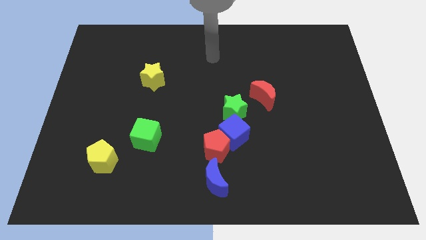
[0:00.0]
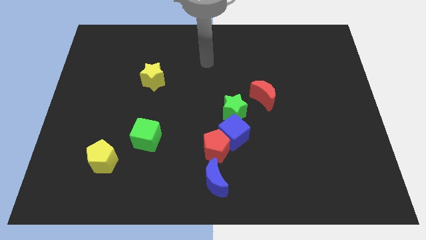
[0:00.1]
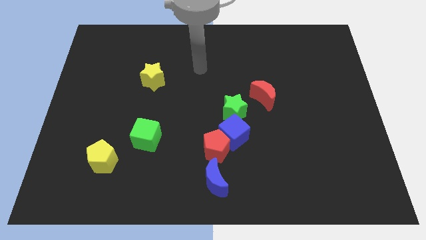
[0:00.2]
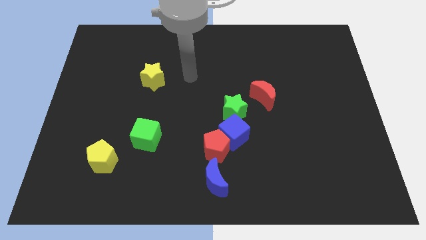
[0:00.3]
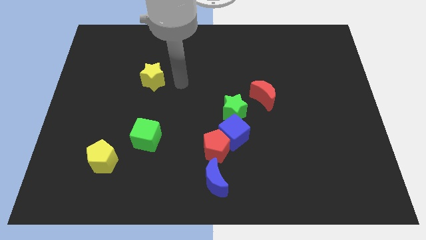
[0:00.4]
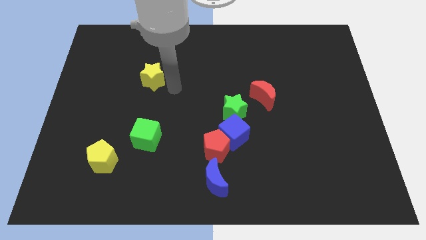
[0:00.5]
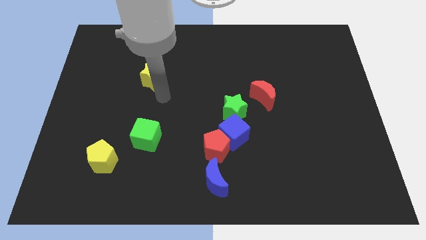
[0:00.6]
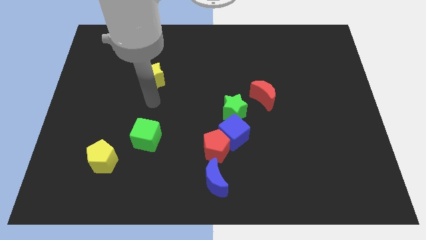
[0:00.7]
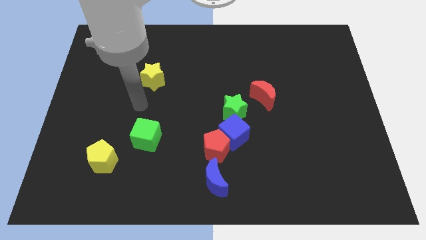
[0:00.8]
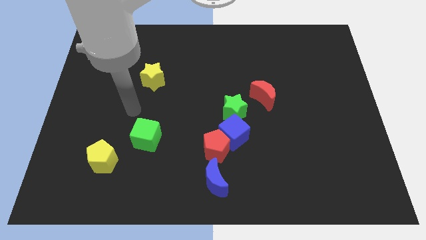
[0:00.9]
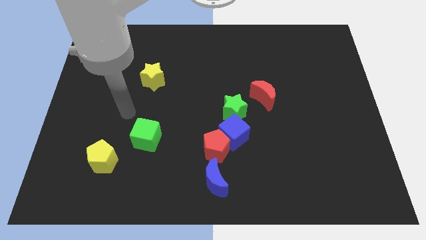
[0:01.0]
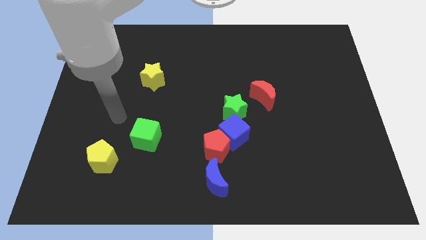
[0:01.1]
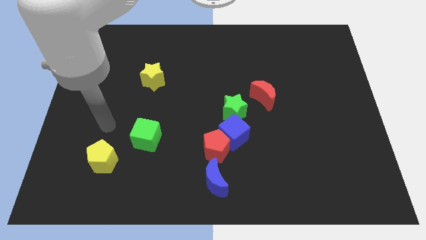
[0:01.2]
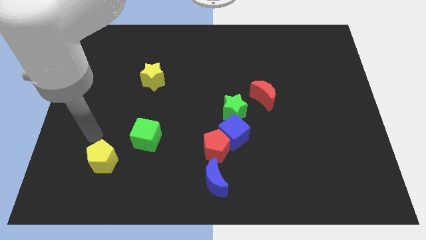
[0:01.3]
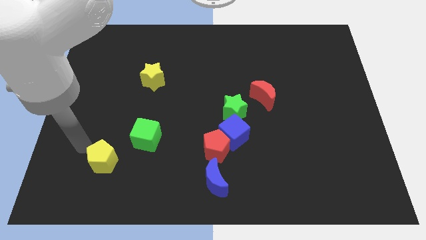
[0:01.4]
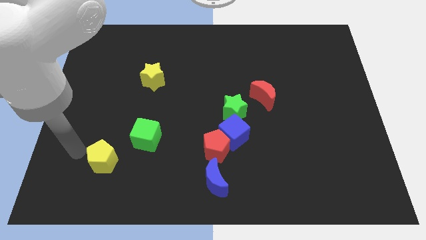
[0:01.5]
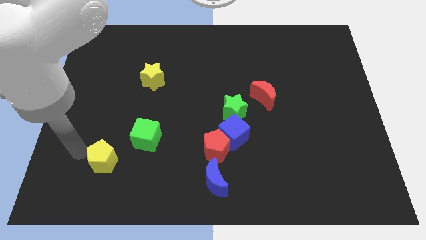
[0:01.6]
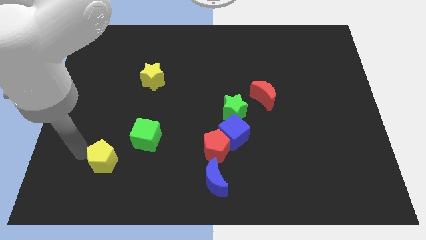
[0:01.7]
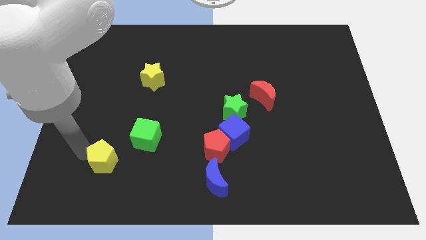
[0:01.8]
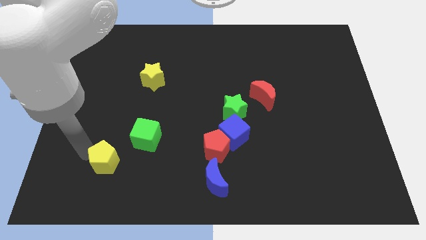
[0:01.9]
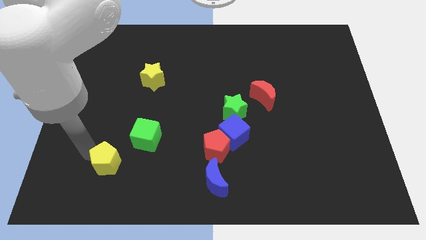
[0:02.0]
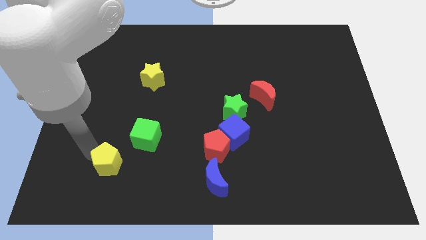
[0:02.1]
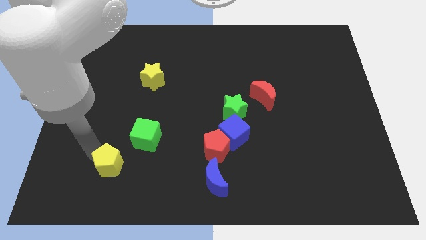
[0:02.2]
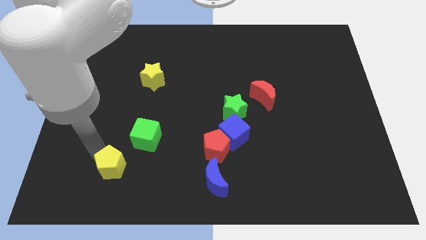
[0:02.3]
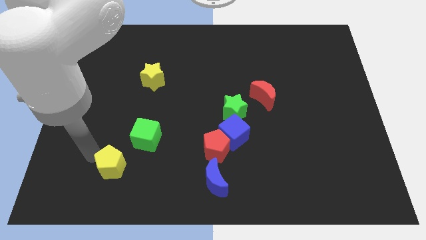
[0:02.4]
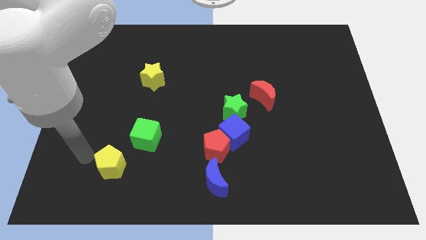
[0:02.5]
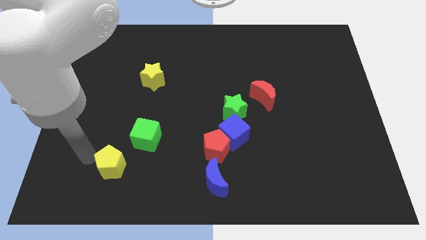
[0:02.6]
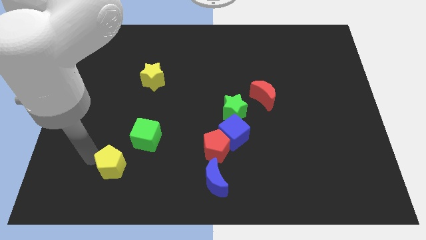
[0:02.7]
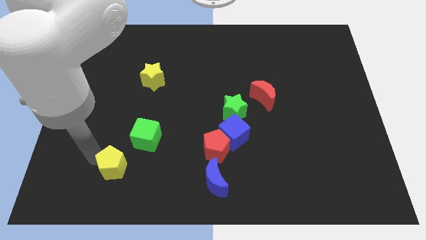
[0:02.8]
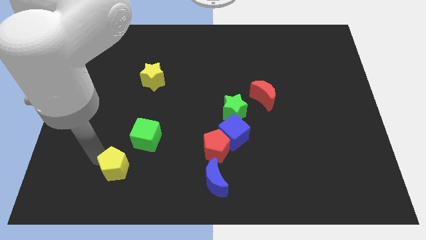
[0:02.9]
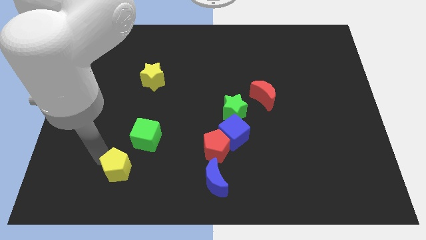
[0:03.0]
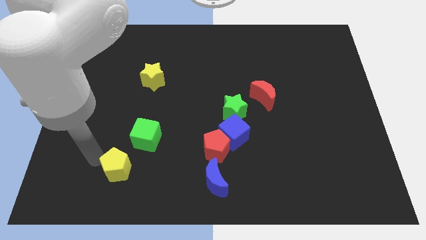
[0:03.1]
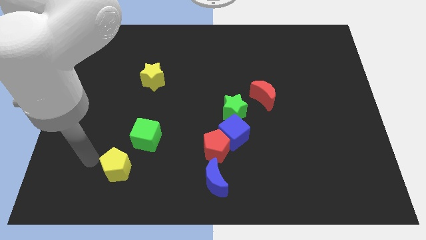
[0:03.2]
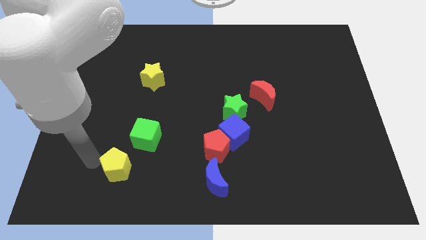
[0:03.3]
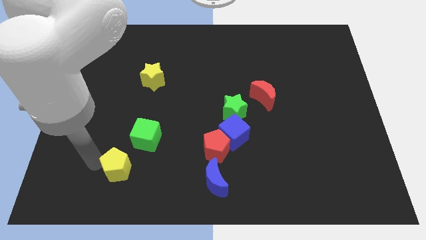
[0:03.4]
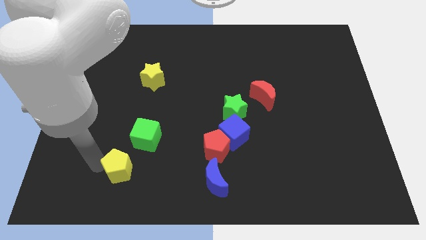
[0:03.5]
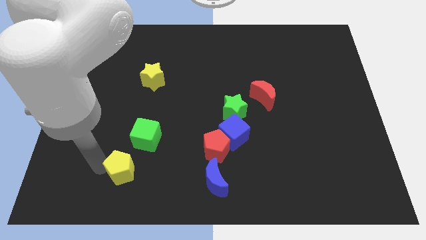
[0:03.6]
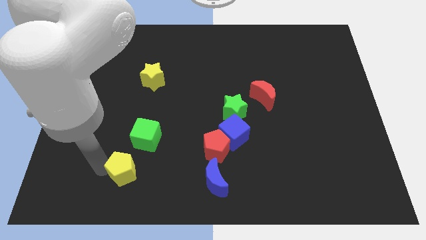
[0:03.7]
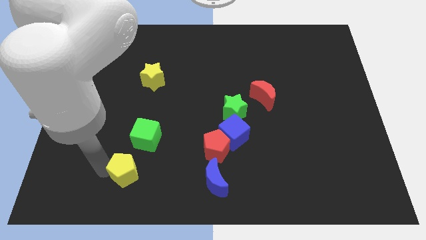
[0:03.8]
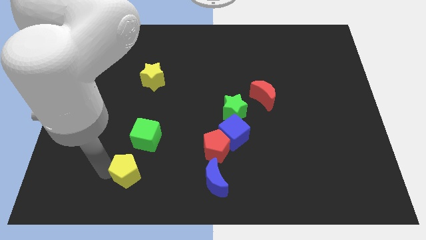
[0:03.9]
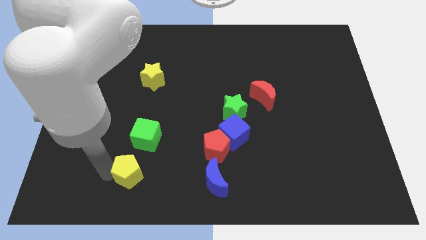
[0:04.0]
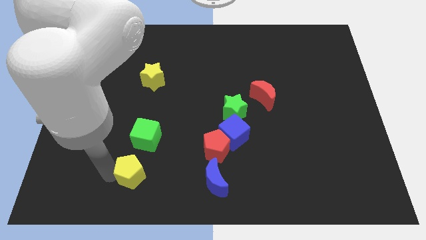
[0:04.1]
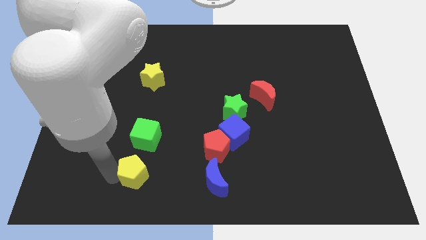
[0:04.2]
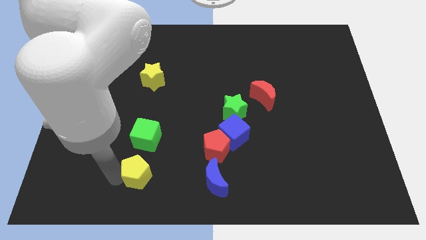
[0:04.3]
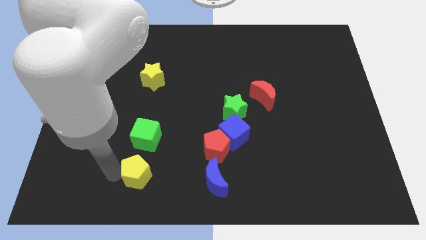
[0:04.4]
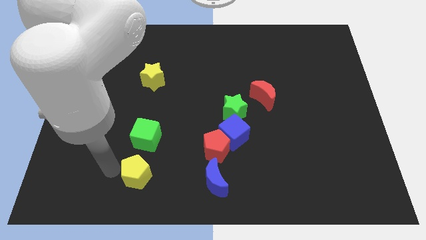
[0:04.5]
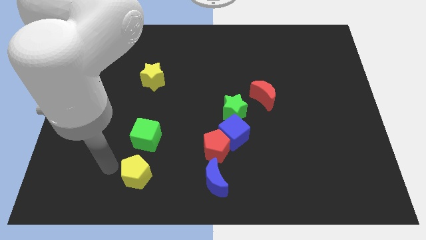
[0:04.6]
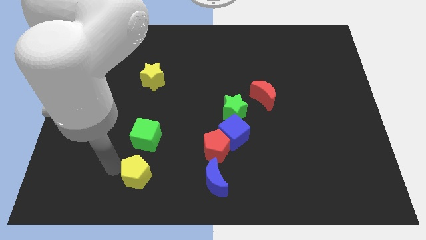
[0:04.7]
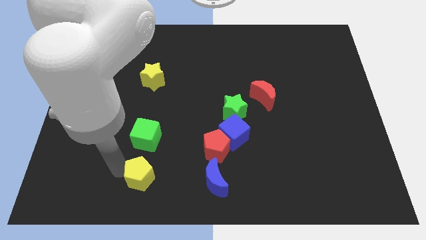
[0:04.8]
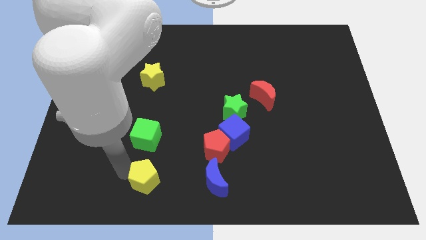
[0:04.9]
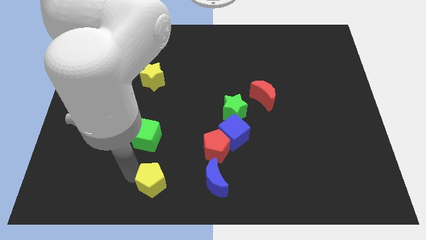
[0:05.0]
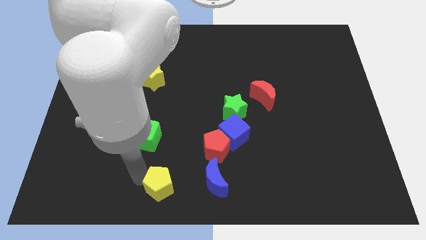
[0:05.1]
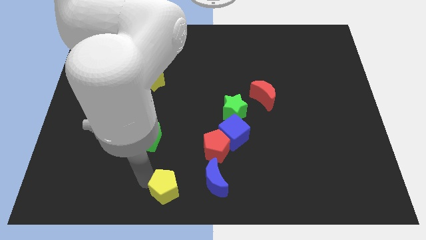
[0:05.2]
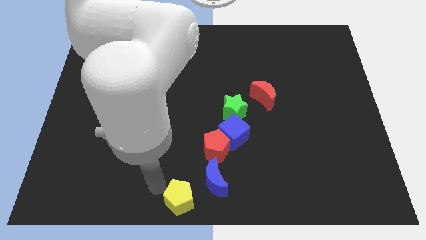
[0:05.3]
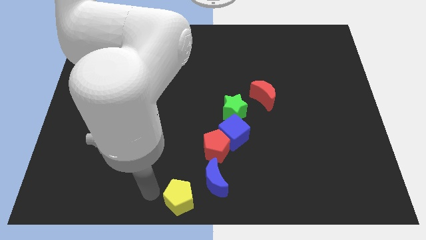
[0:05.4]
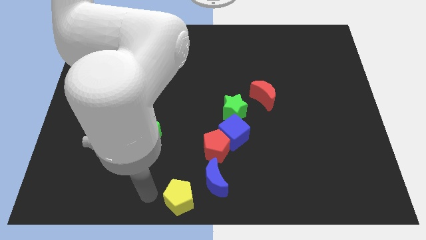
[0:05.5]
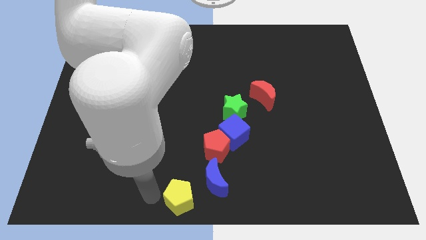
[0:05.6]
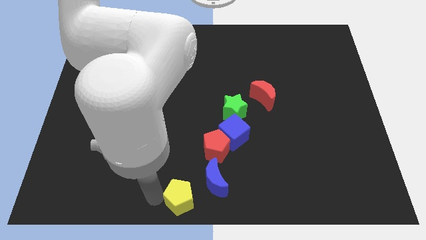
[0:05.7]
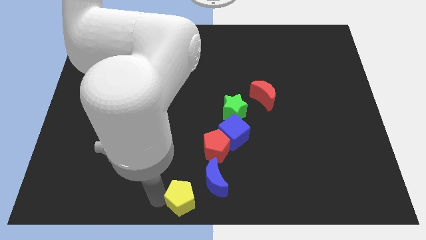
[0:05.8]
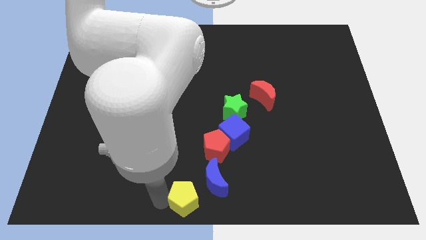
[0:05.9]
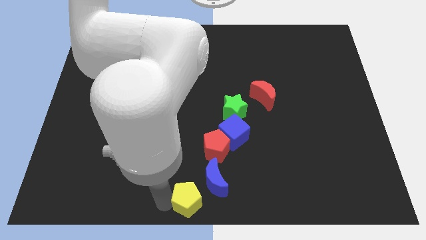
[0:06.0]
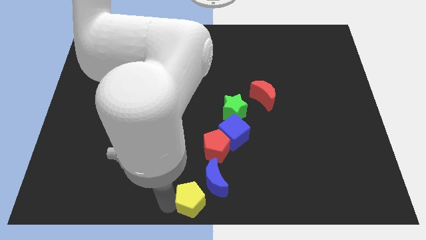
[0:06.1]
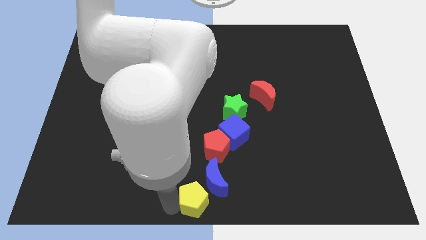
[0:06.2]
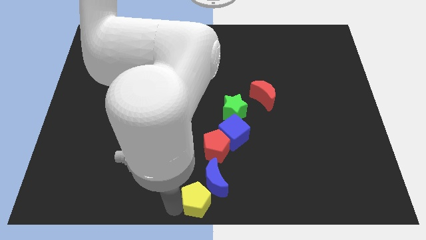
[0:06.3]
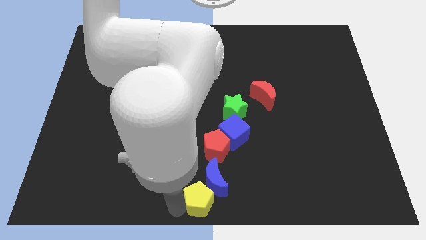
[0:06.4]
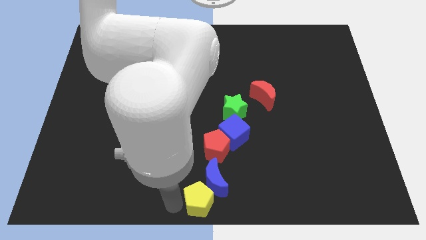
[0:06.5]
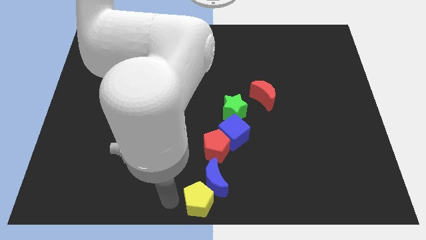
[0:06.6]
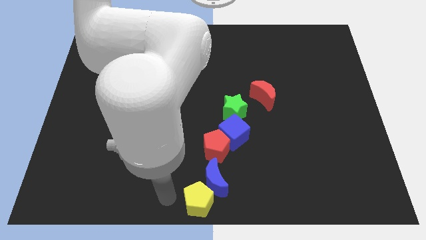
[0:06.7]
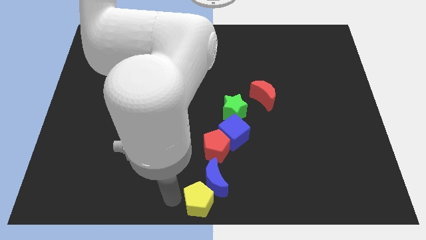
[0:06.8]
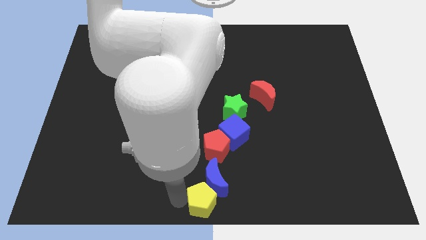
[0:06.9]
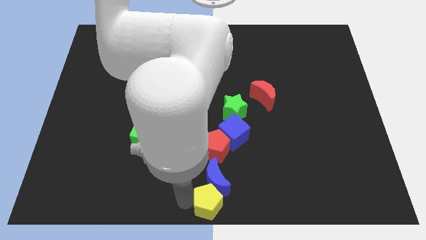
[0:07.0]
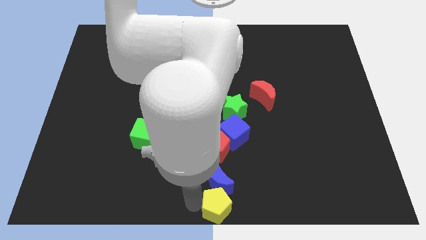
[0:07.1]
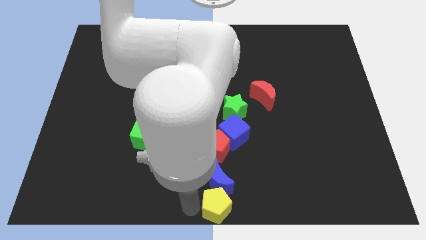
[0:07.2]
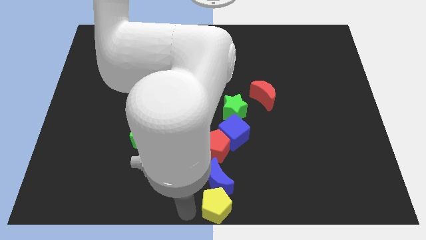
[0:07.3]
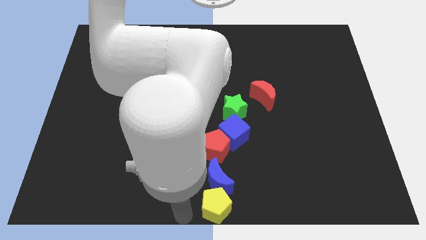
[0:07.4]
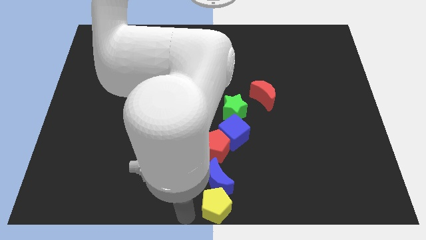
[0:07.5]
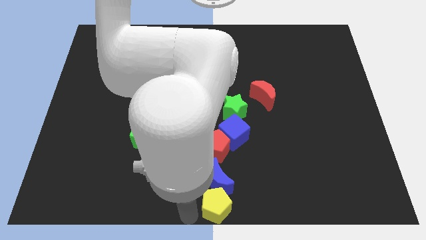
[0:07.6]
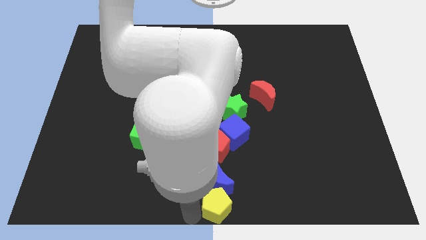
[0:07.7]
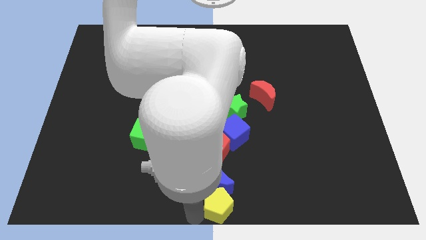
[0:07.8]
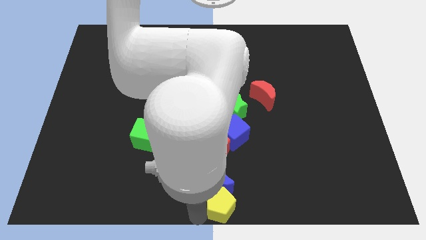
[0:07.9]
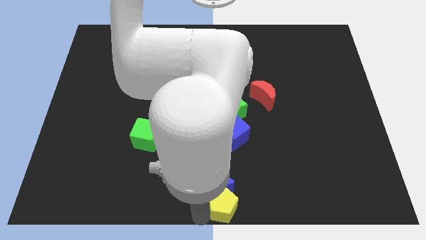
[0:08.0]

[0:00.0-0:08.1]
push the yellow pentagon right

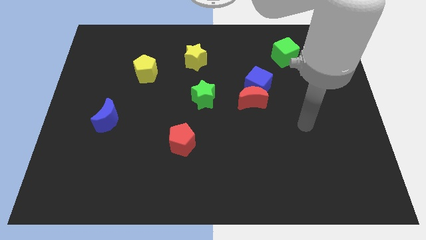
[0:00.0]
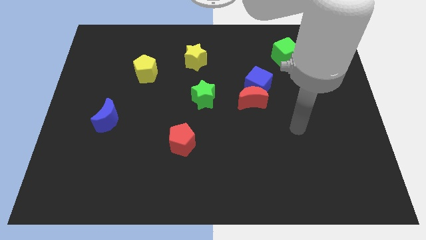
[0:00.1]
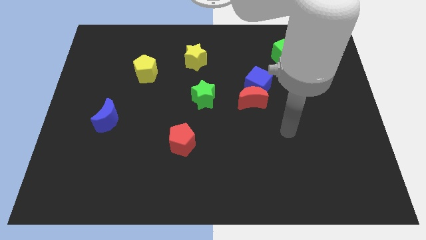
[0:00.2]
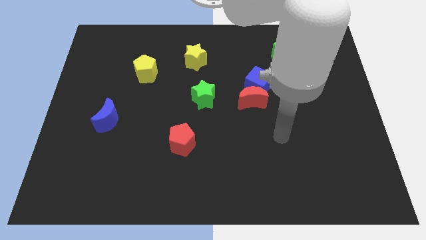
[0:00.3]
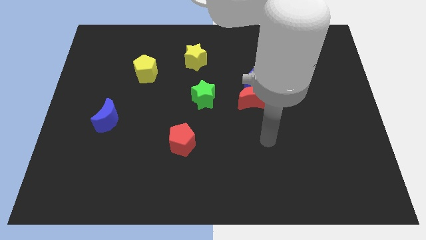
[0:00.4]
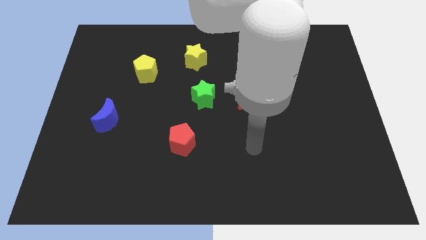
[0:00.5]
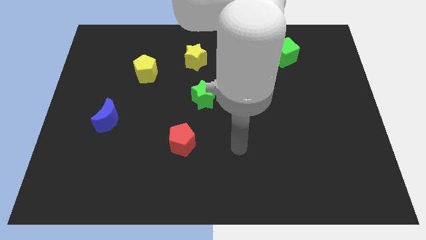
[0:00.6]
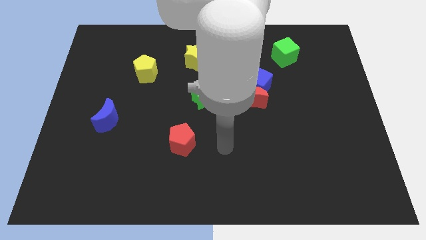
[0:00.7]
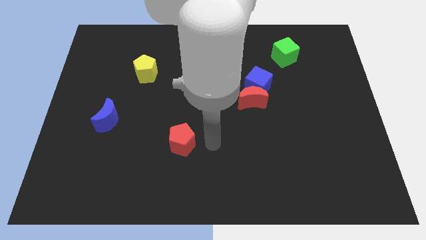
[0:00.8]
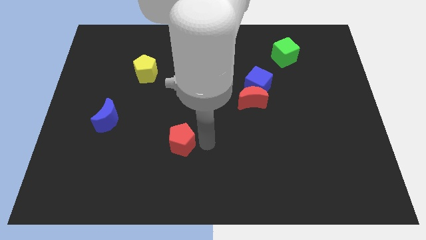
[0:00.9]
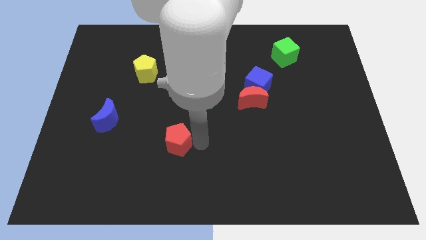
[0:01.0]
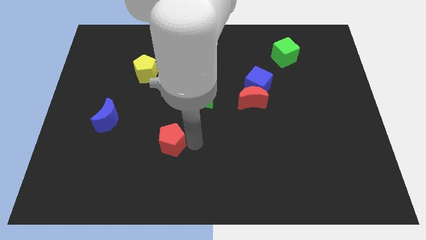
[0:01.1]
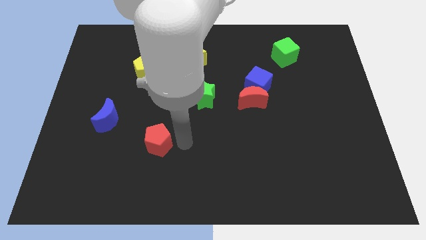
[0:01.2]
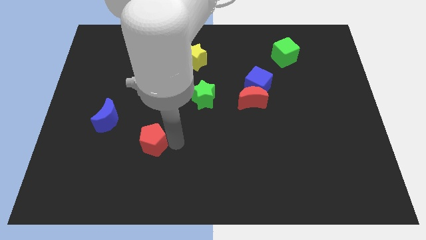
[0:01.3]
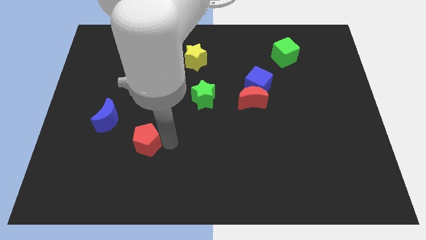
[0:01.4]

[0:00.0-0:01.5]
slide the red pentagon left slightly
